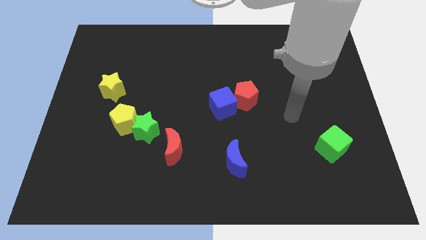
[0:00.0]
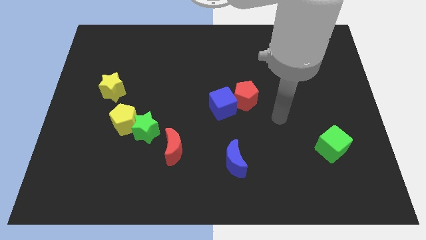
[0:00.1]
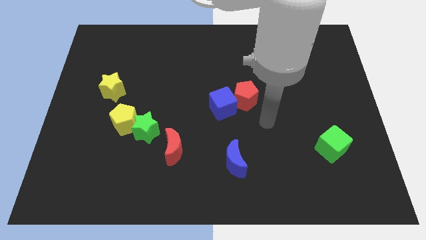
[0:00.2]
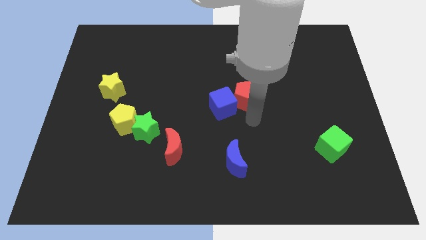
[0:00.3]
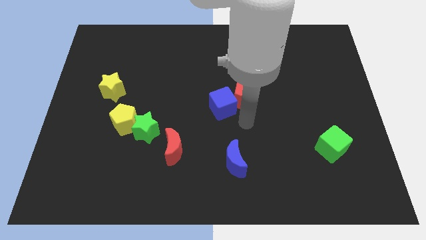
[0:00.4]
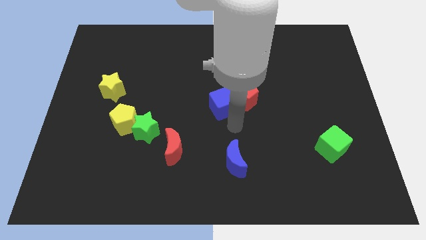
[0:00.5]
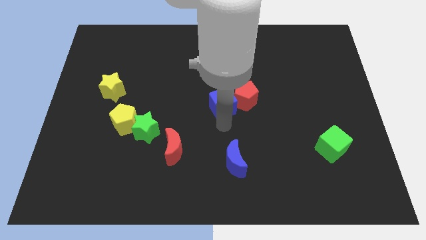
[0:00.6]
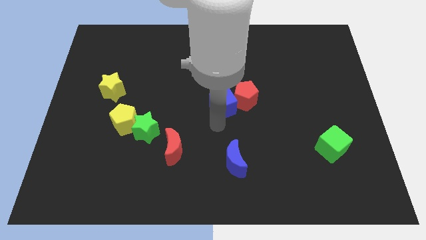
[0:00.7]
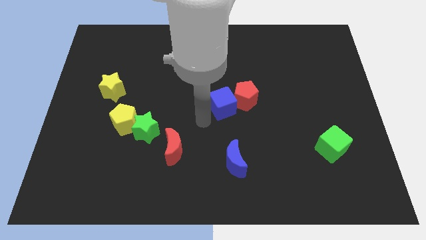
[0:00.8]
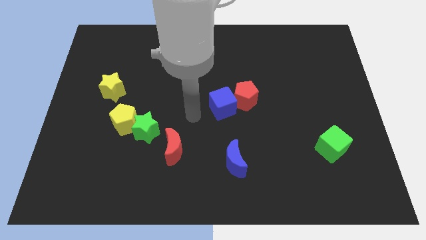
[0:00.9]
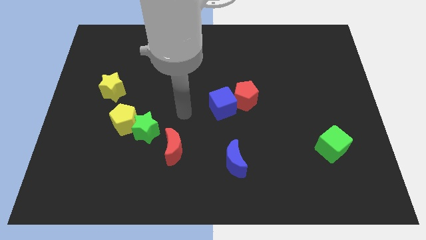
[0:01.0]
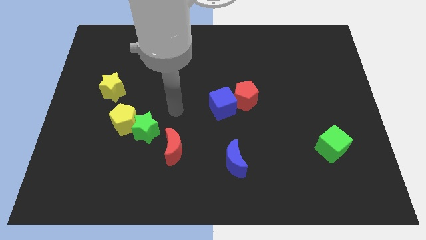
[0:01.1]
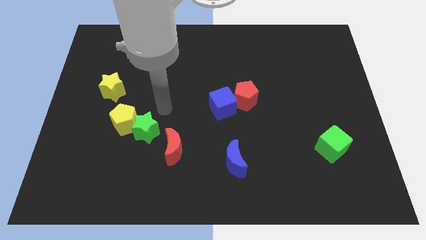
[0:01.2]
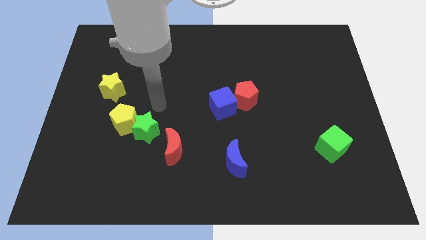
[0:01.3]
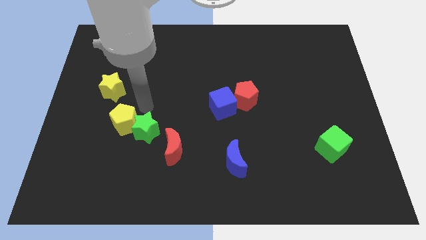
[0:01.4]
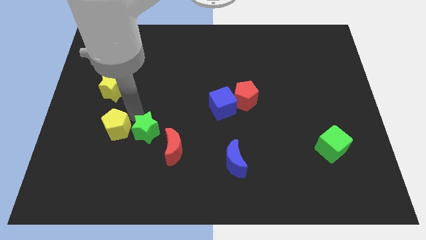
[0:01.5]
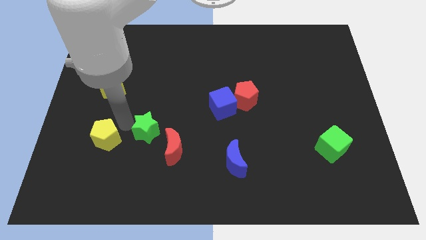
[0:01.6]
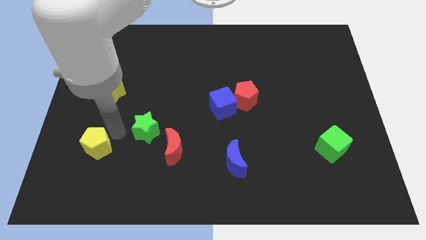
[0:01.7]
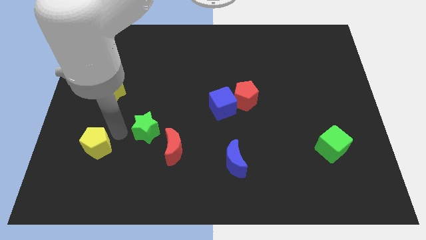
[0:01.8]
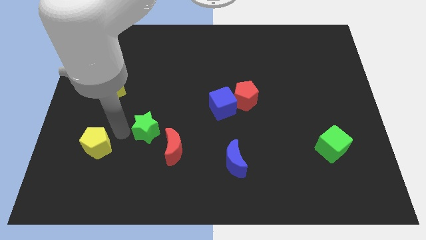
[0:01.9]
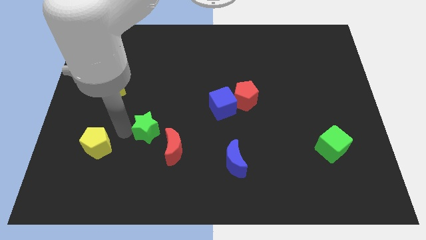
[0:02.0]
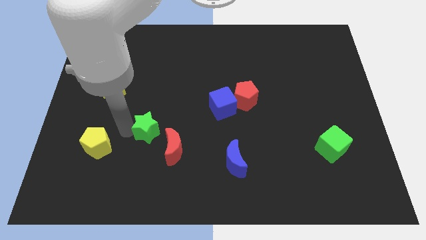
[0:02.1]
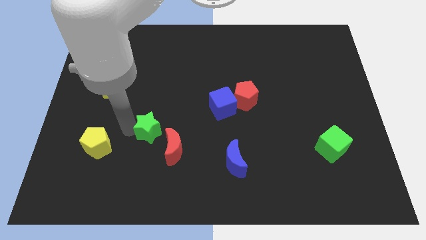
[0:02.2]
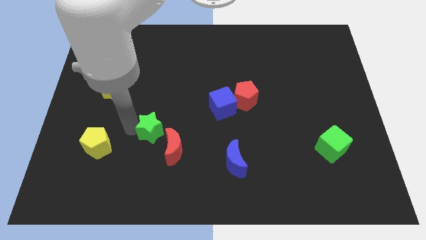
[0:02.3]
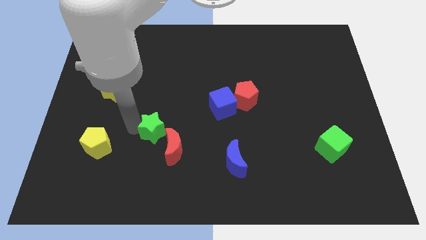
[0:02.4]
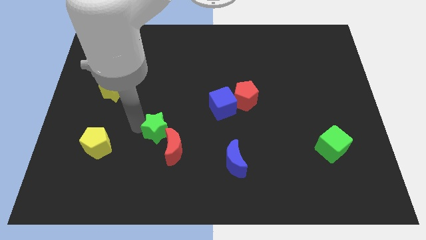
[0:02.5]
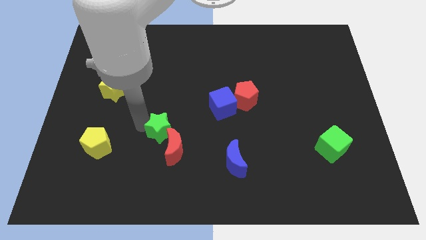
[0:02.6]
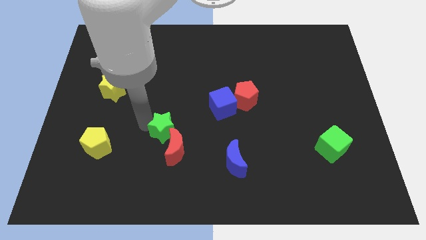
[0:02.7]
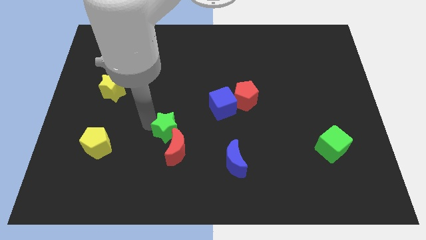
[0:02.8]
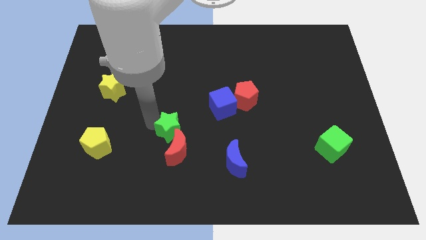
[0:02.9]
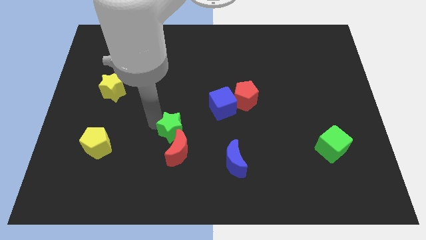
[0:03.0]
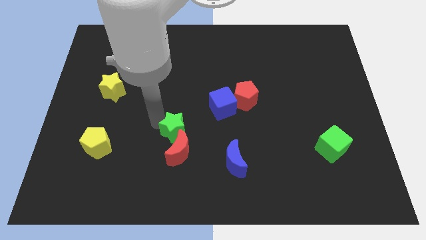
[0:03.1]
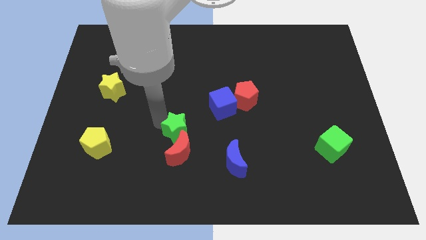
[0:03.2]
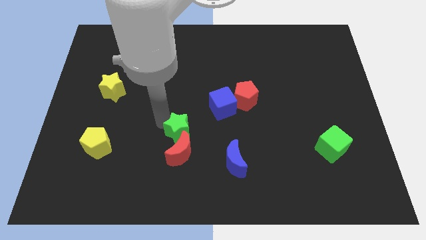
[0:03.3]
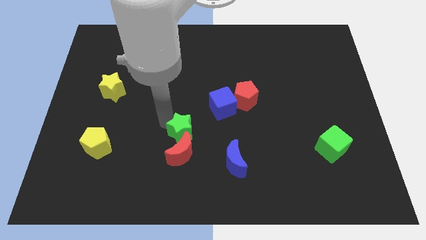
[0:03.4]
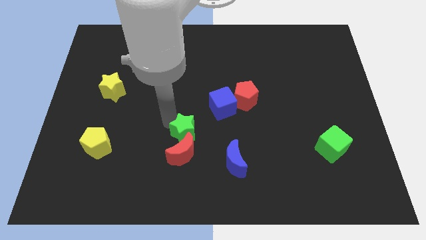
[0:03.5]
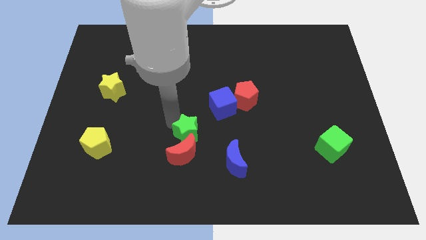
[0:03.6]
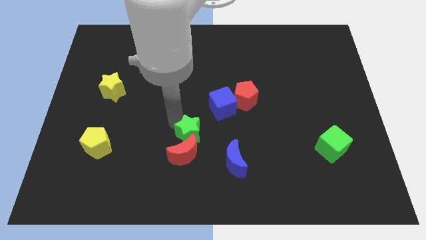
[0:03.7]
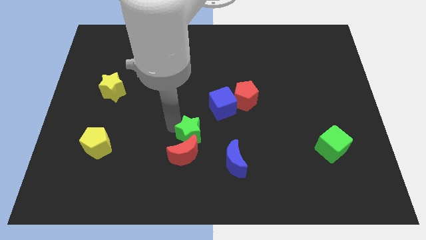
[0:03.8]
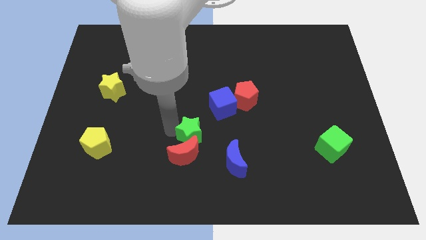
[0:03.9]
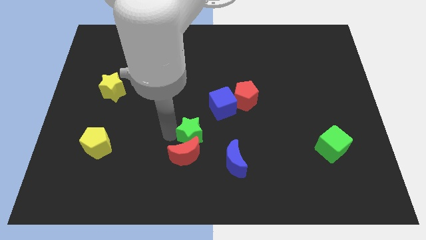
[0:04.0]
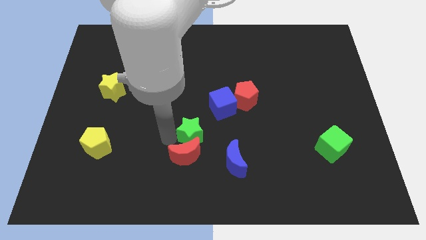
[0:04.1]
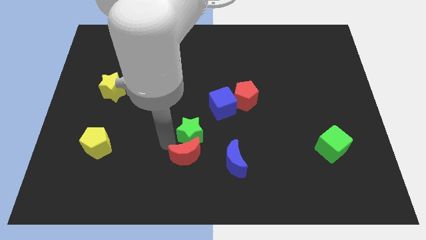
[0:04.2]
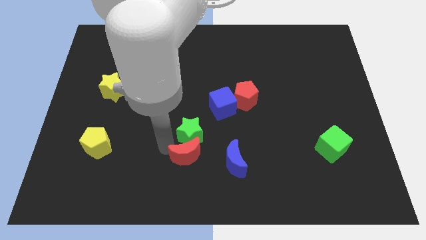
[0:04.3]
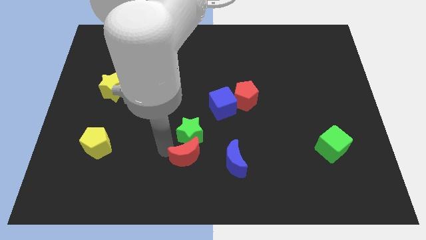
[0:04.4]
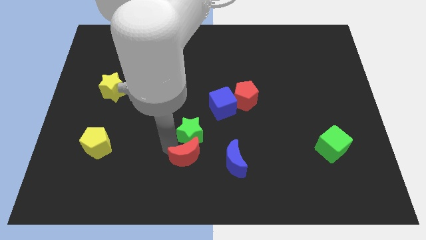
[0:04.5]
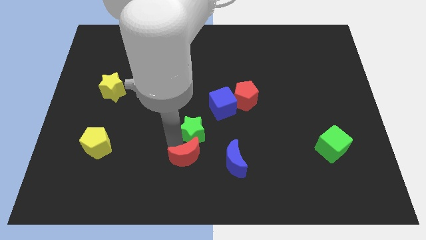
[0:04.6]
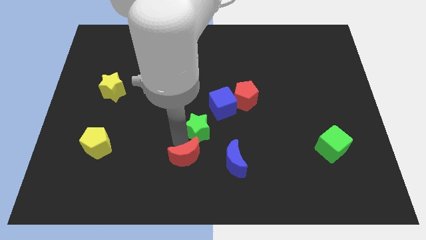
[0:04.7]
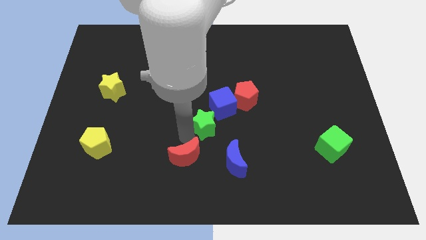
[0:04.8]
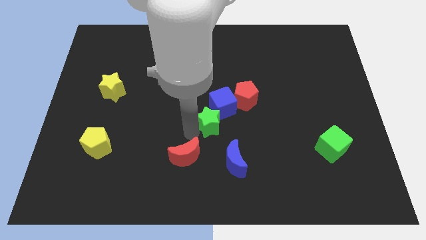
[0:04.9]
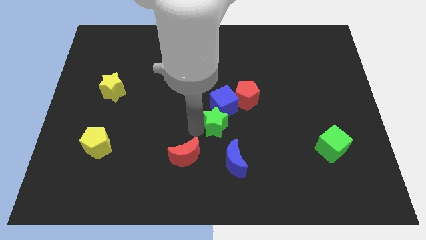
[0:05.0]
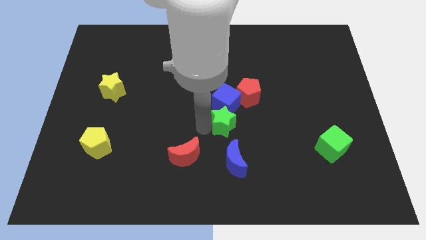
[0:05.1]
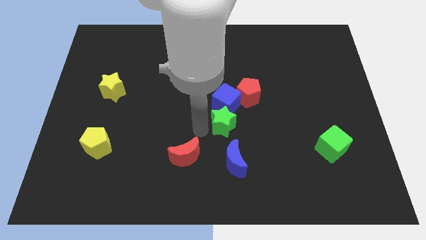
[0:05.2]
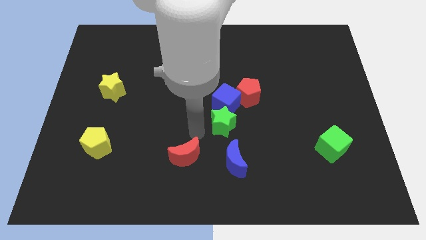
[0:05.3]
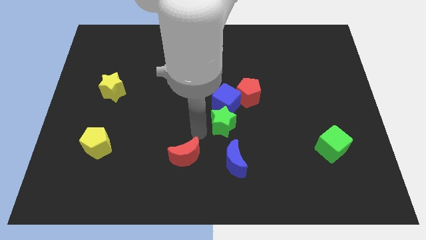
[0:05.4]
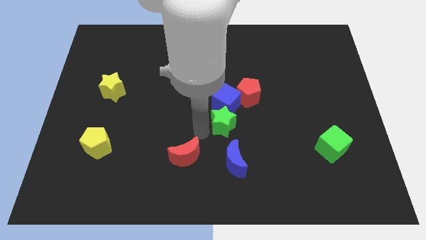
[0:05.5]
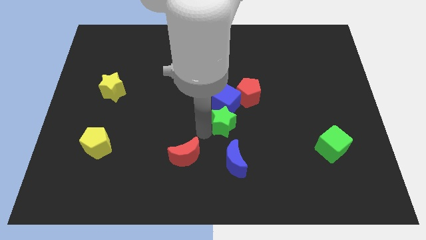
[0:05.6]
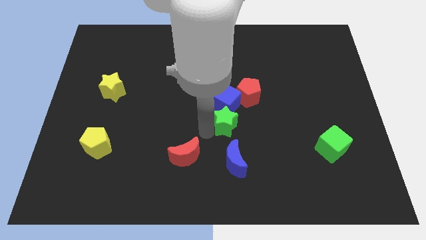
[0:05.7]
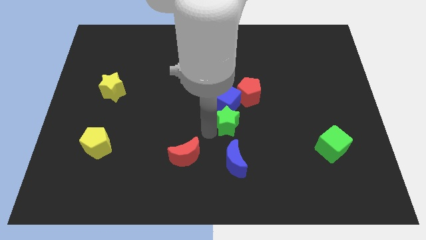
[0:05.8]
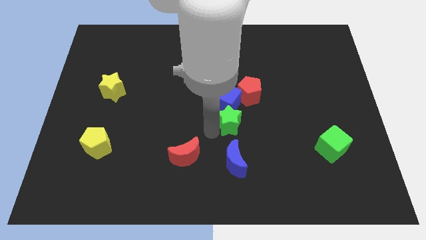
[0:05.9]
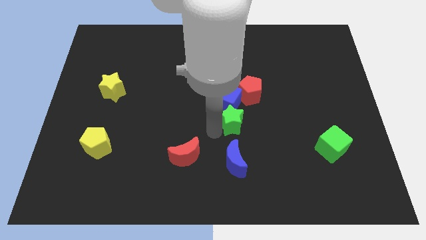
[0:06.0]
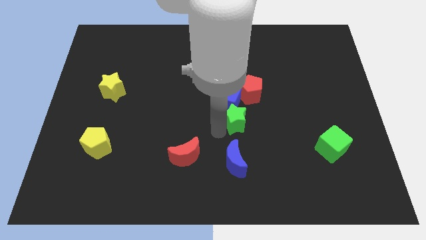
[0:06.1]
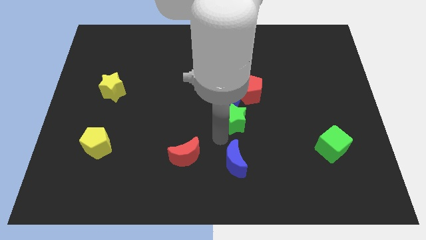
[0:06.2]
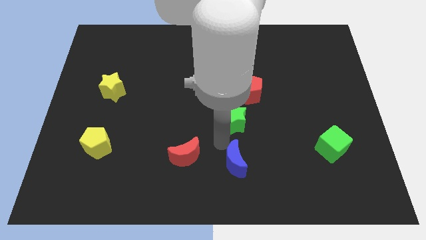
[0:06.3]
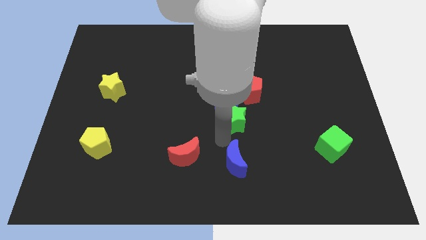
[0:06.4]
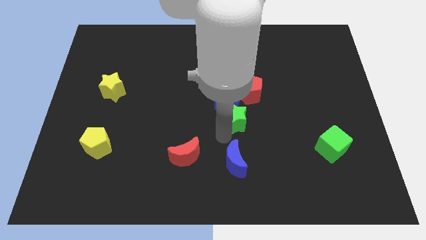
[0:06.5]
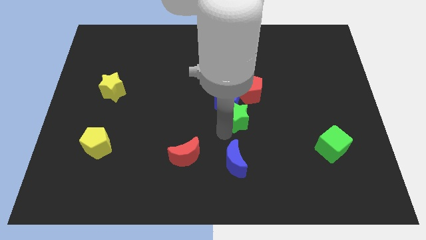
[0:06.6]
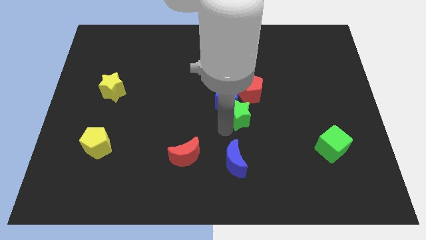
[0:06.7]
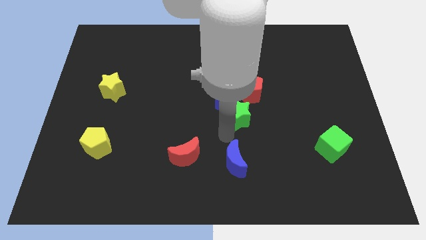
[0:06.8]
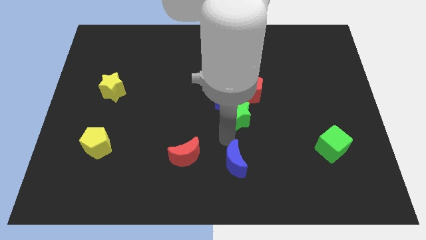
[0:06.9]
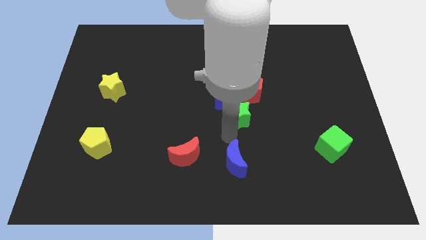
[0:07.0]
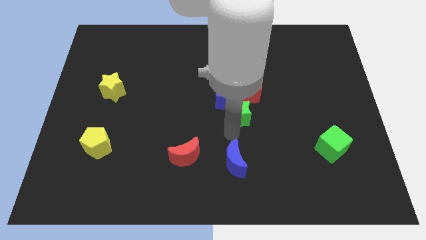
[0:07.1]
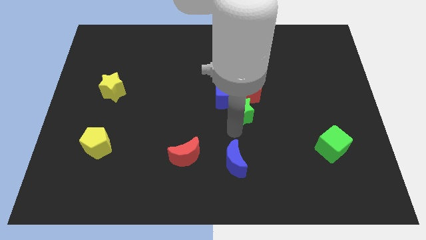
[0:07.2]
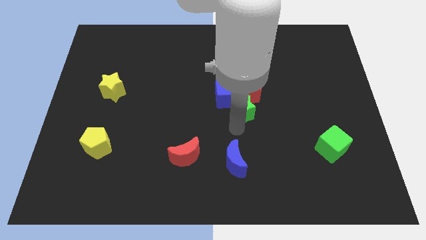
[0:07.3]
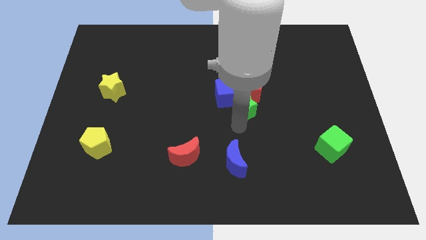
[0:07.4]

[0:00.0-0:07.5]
push the green star close to the red pentagon
